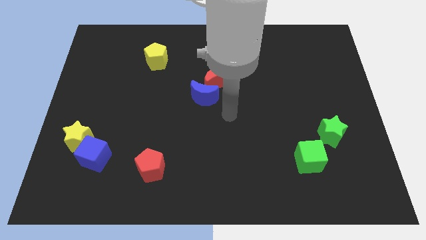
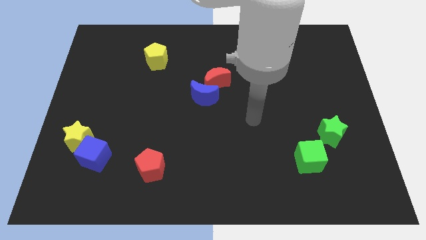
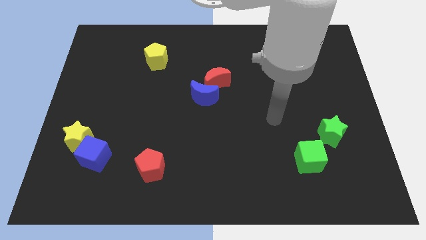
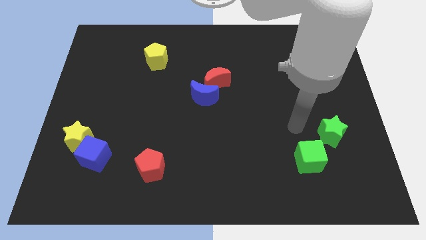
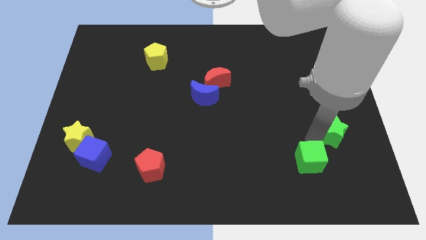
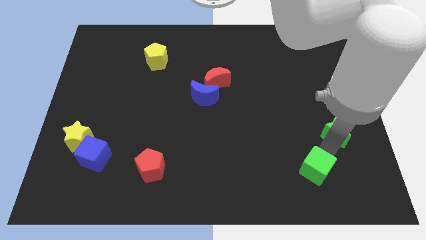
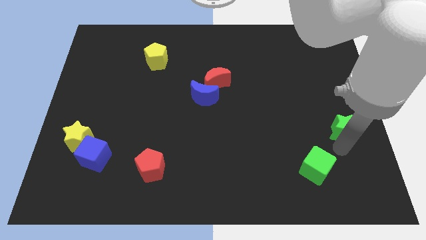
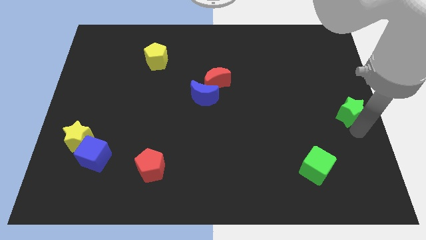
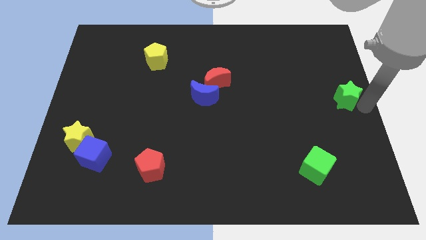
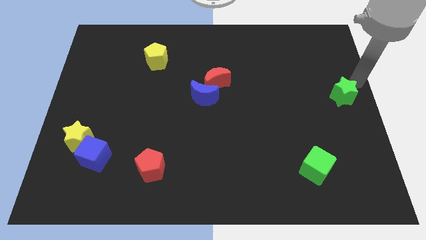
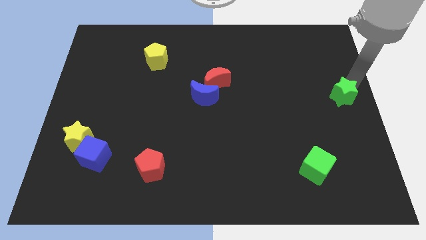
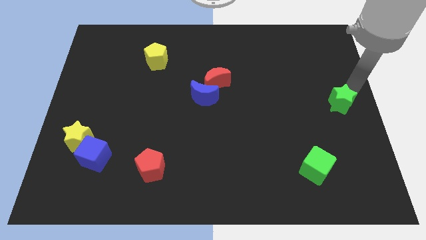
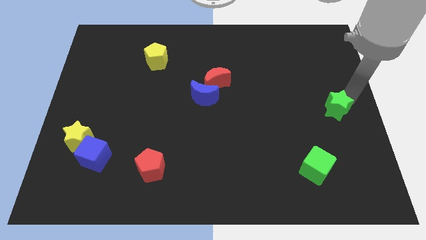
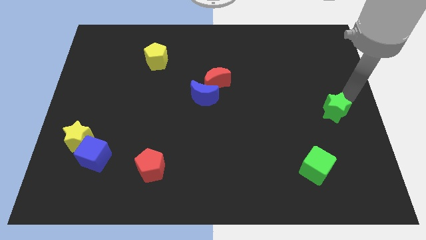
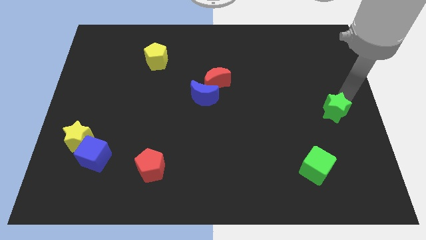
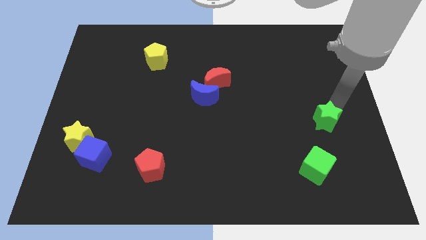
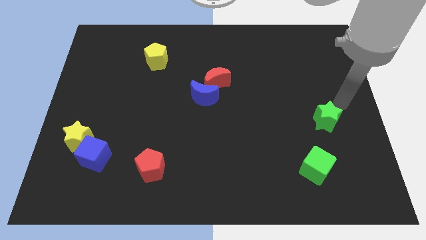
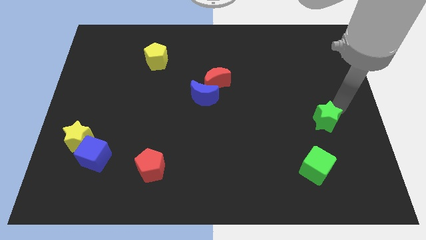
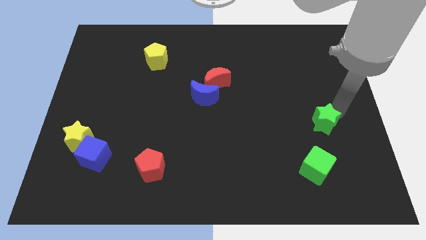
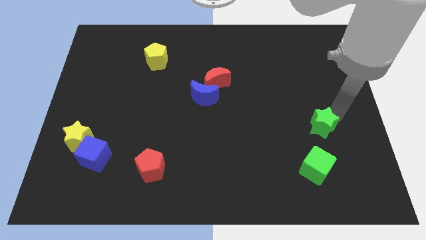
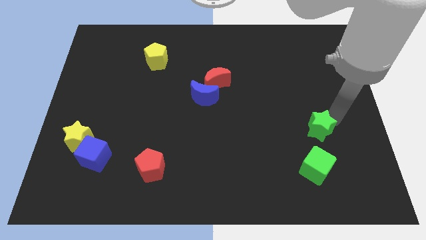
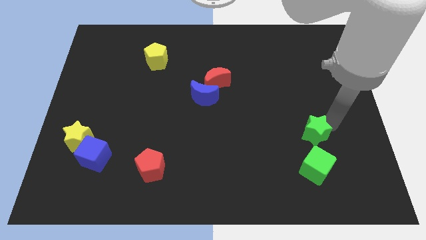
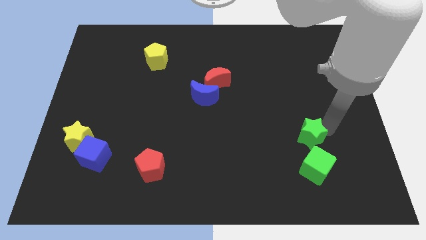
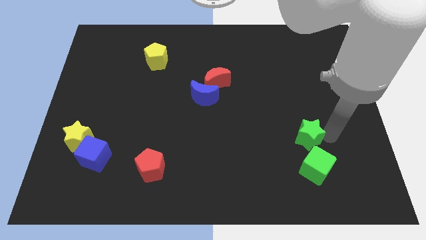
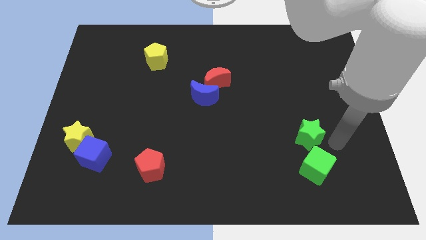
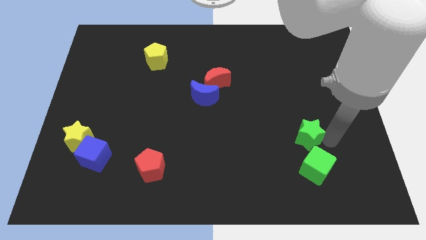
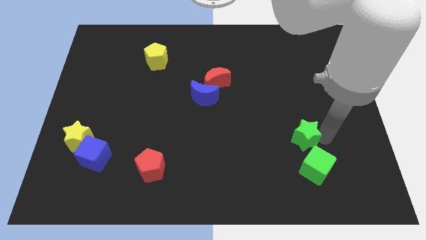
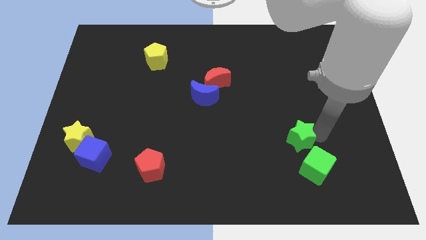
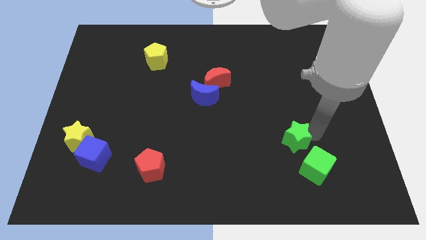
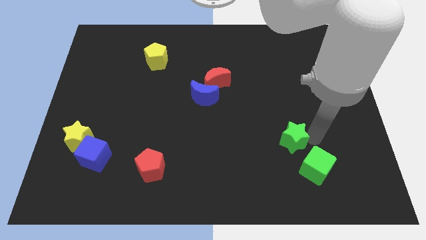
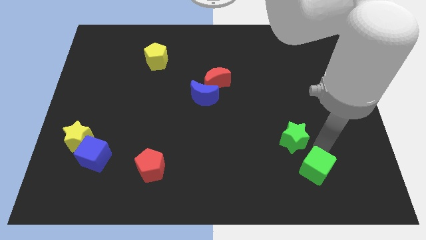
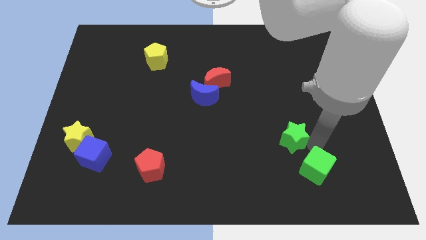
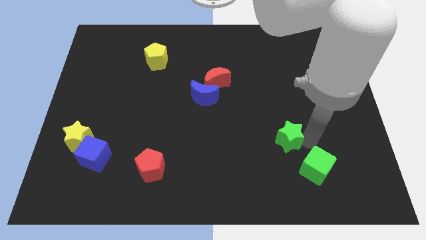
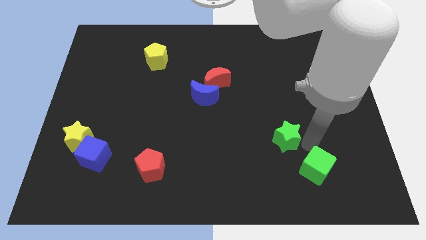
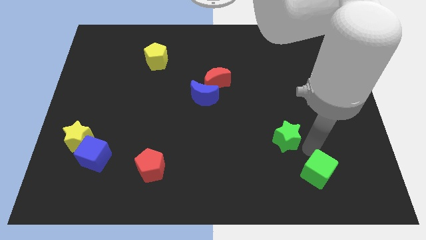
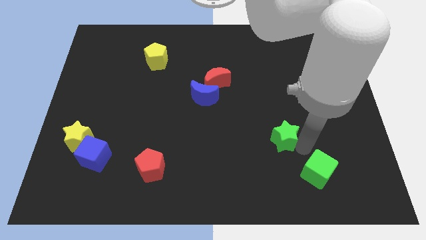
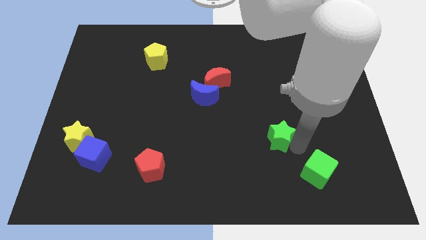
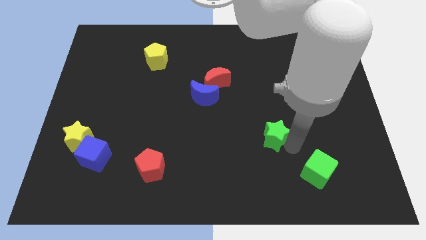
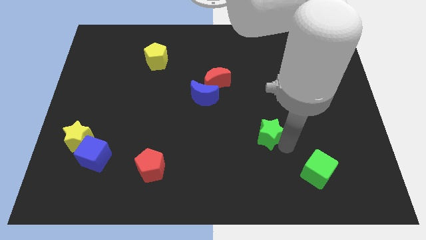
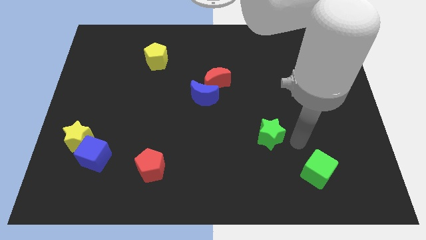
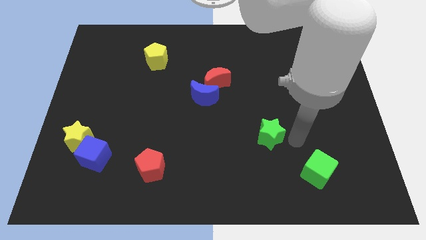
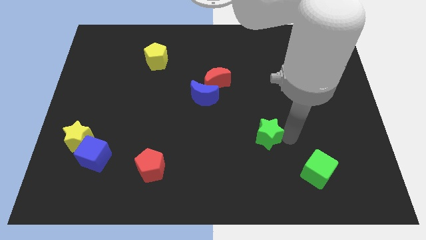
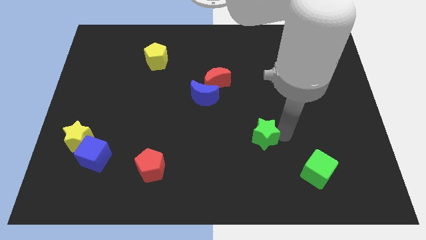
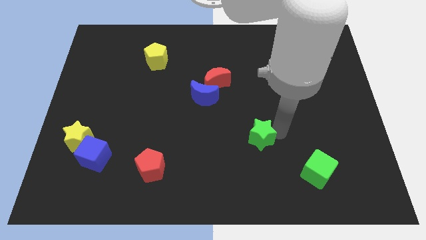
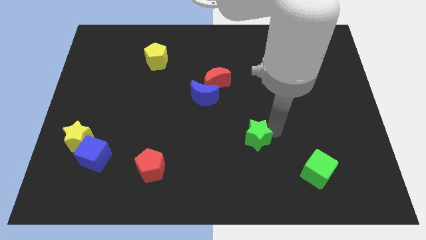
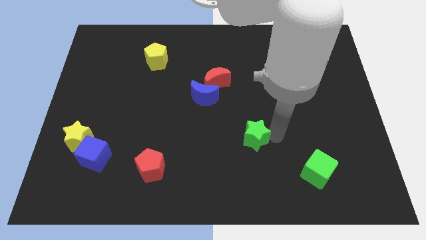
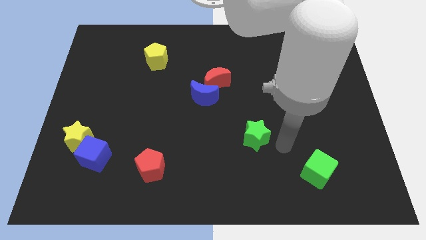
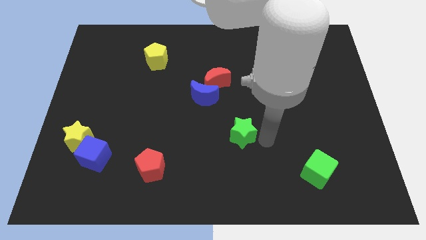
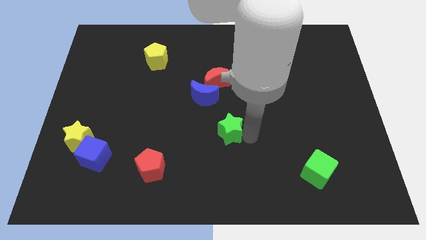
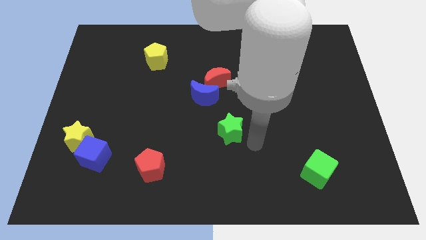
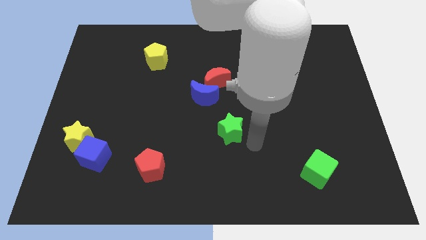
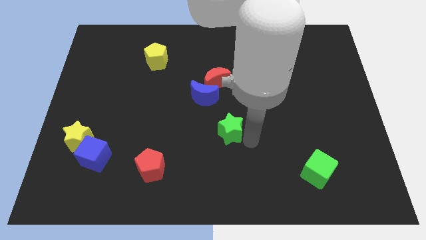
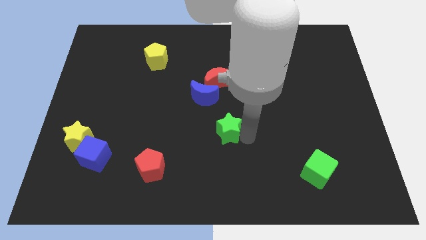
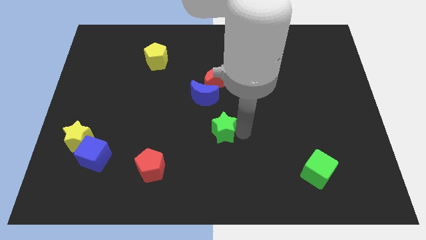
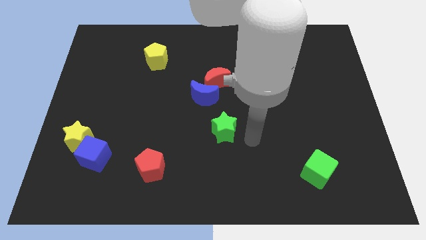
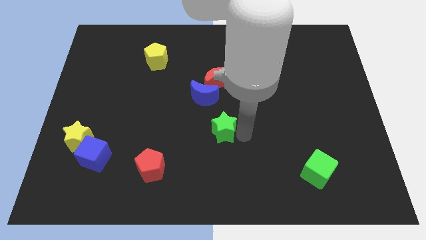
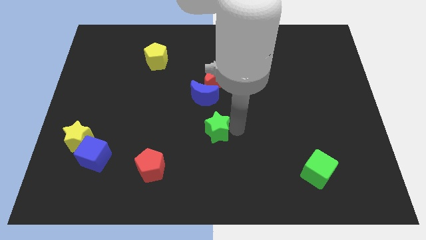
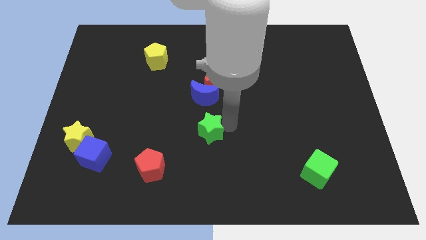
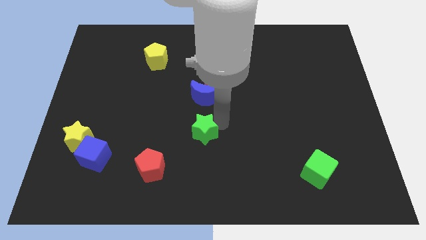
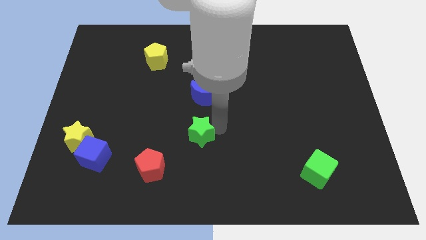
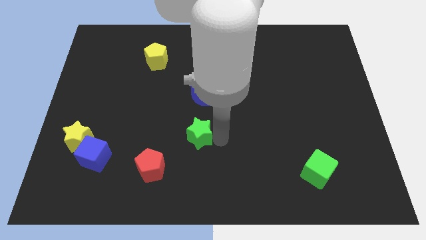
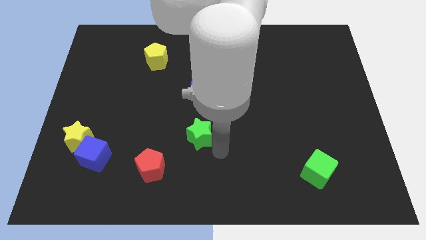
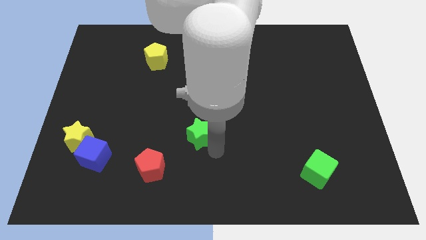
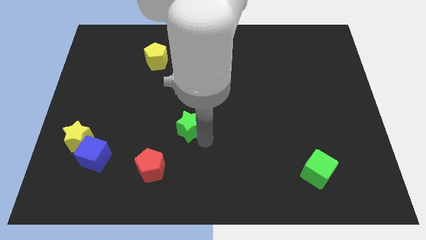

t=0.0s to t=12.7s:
slide the green star to the bottom left side of the blue moon
